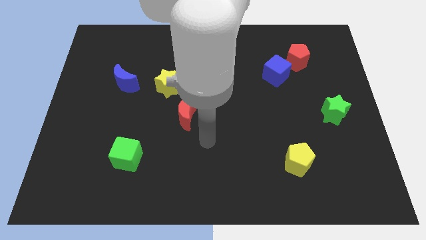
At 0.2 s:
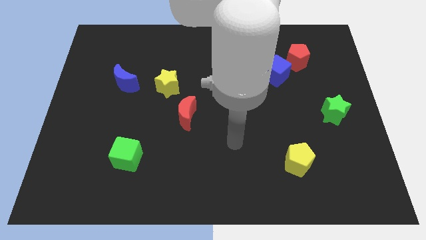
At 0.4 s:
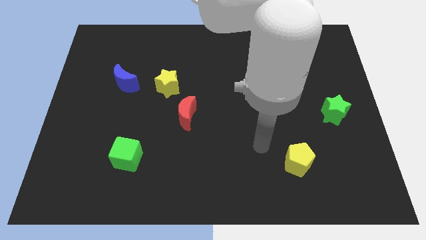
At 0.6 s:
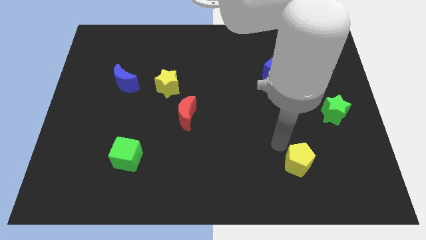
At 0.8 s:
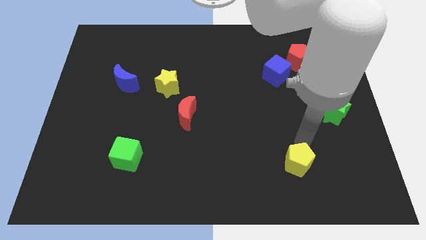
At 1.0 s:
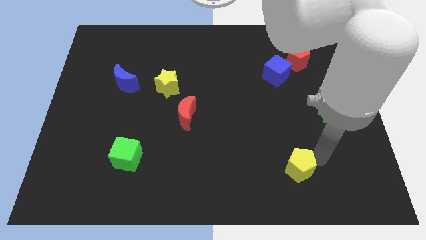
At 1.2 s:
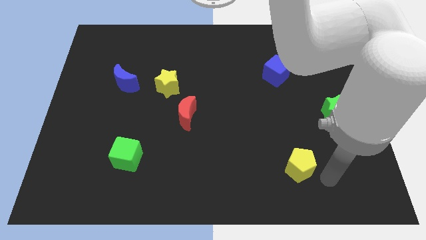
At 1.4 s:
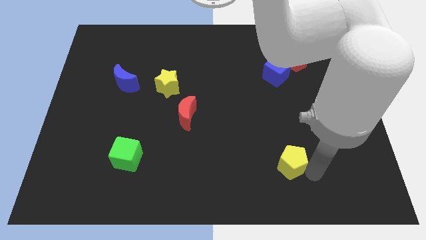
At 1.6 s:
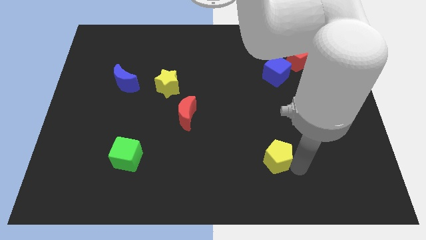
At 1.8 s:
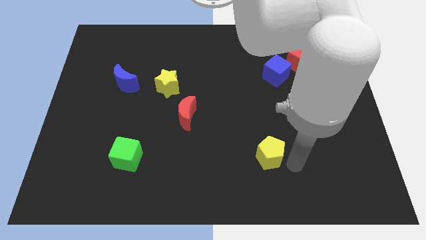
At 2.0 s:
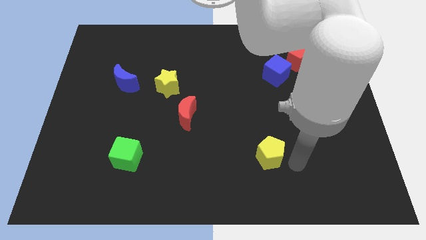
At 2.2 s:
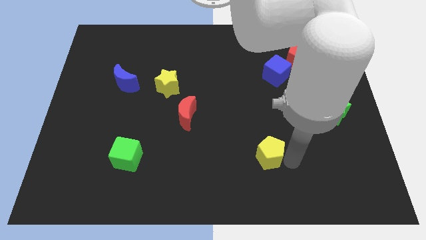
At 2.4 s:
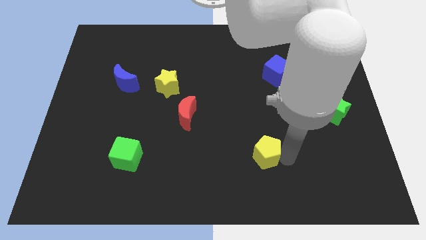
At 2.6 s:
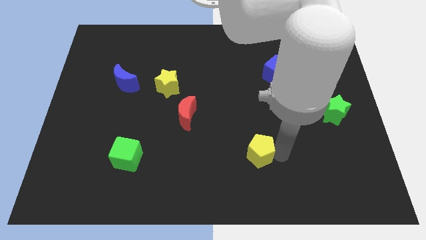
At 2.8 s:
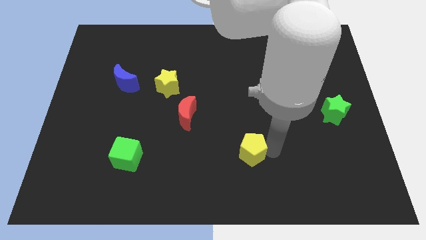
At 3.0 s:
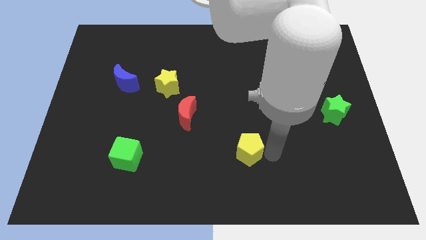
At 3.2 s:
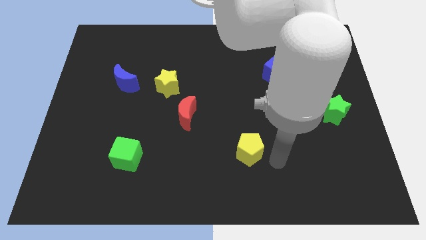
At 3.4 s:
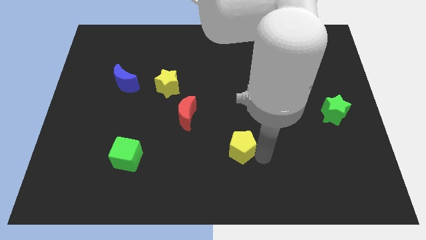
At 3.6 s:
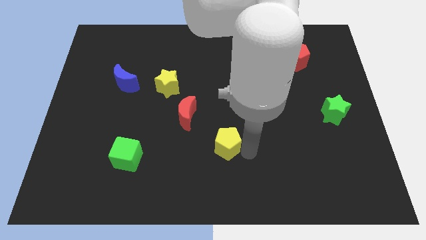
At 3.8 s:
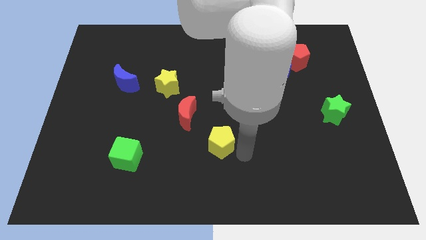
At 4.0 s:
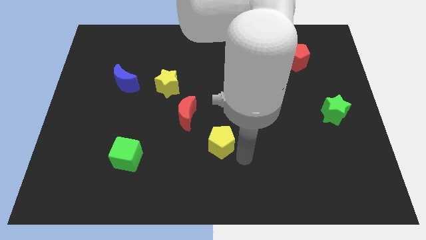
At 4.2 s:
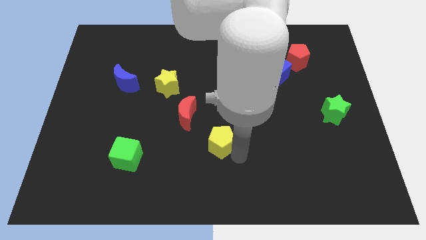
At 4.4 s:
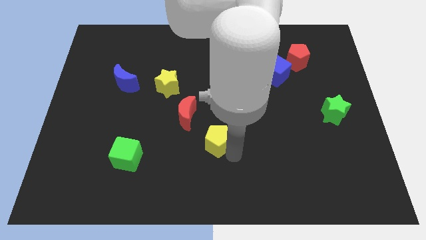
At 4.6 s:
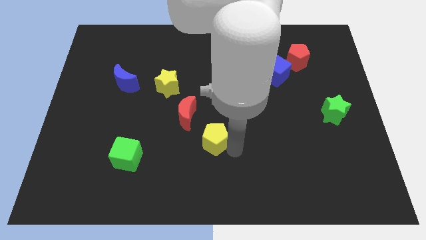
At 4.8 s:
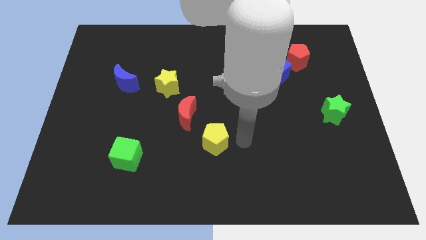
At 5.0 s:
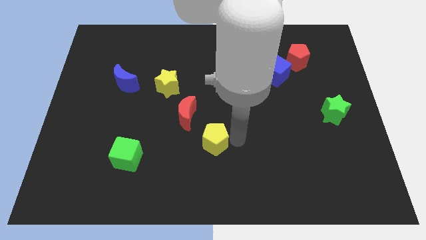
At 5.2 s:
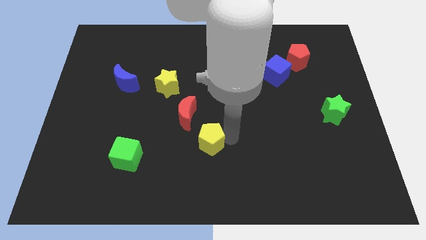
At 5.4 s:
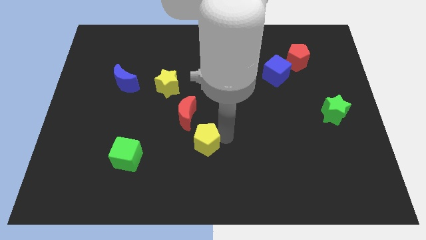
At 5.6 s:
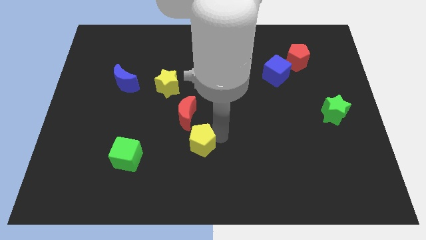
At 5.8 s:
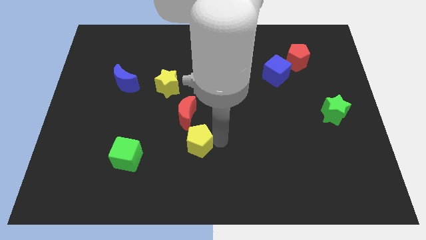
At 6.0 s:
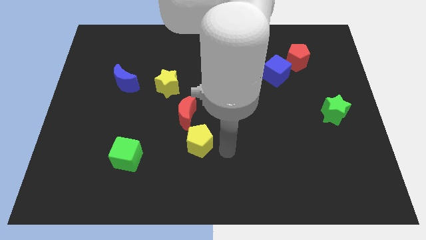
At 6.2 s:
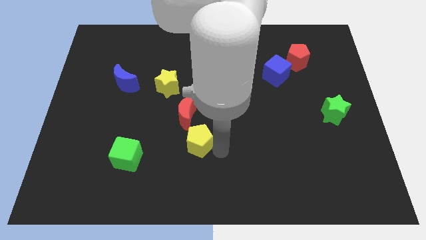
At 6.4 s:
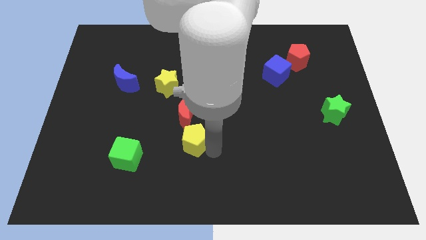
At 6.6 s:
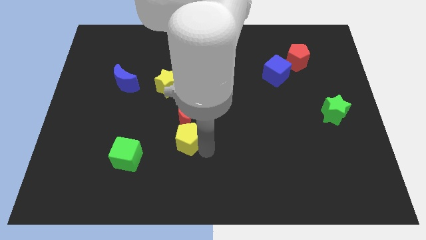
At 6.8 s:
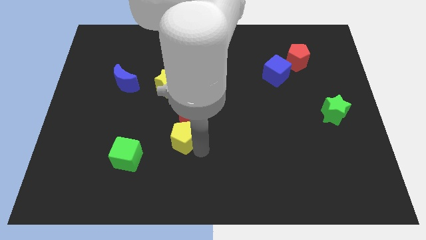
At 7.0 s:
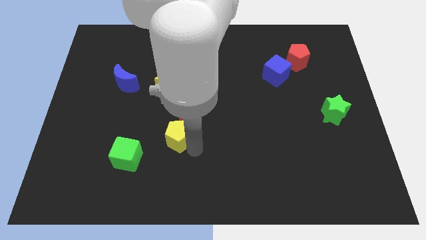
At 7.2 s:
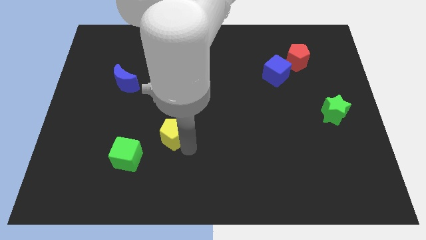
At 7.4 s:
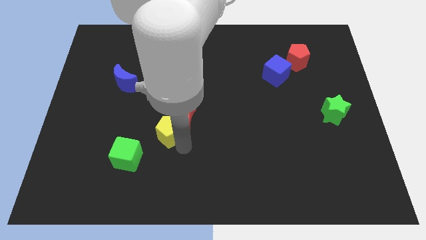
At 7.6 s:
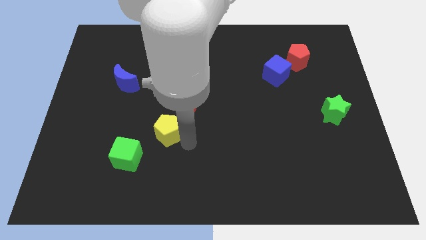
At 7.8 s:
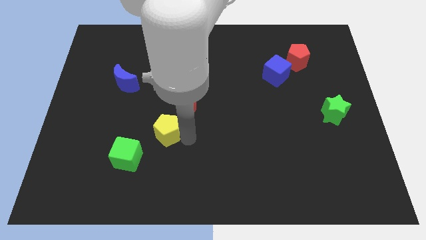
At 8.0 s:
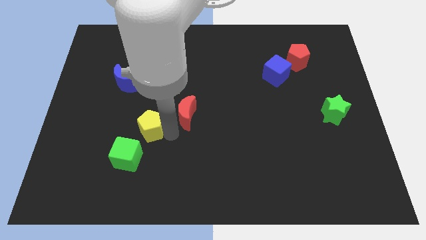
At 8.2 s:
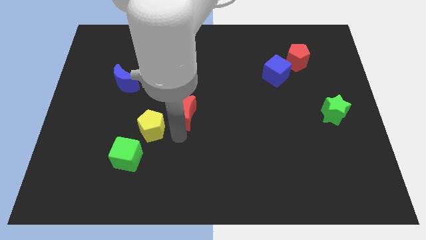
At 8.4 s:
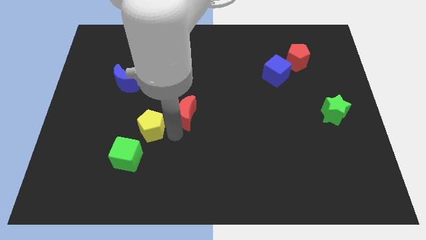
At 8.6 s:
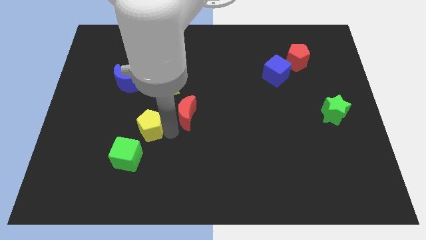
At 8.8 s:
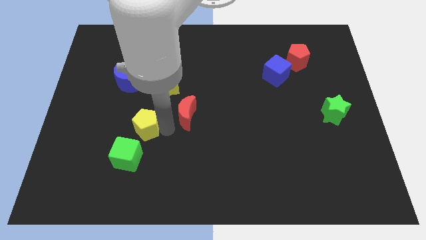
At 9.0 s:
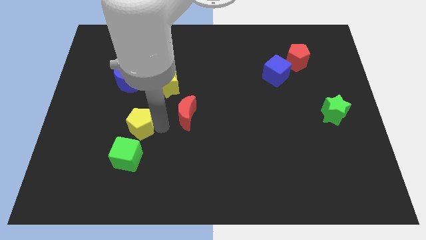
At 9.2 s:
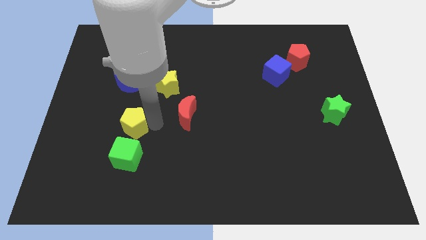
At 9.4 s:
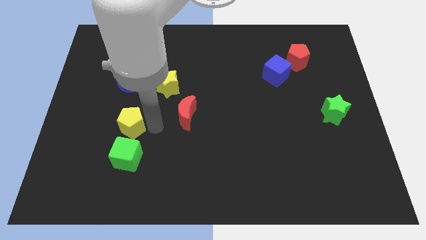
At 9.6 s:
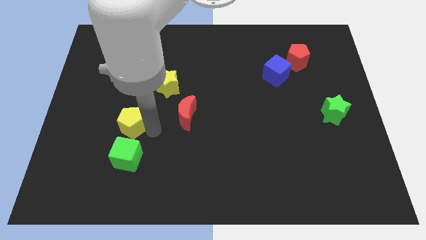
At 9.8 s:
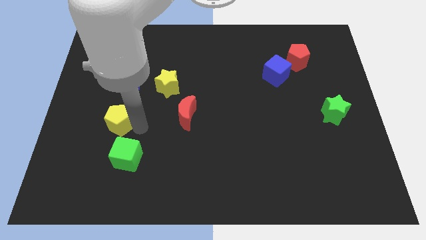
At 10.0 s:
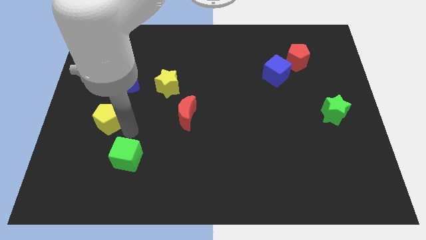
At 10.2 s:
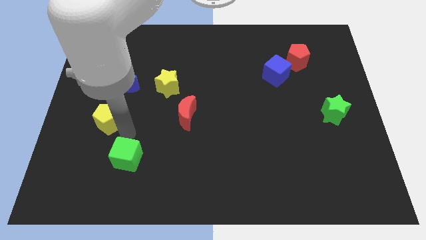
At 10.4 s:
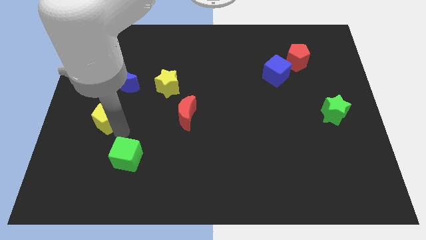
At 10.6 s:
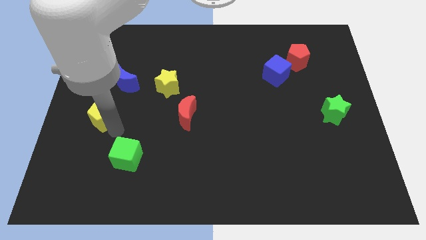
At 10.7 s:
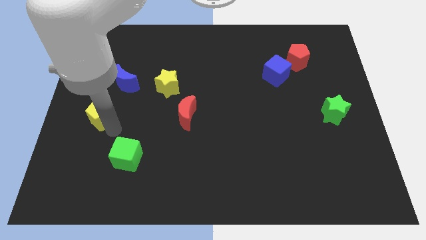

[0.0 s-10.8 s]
push the yellow pentagon to the center left
